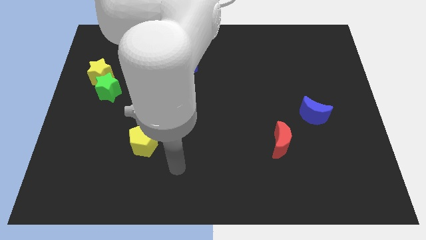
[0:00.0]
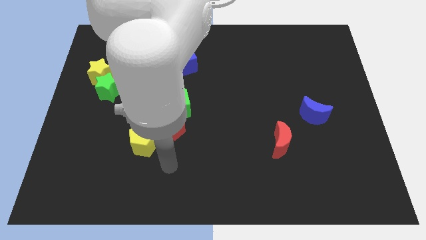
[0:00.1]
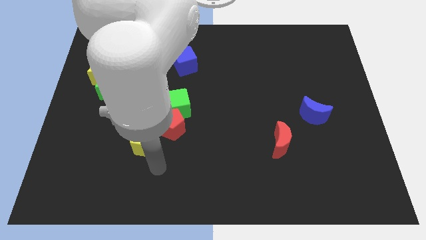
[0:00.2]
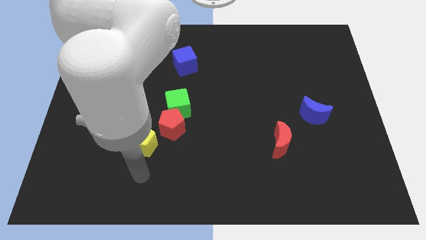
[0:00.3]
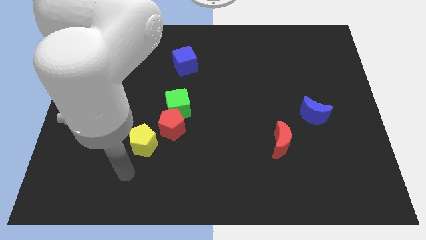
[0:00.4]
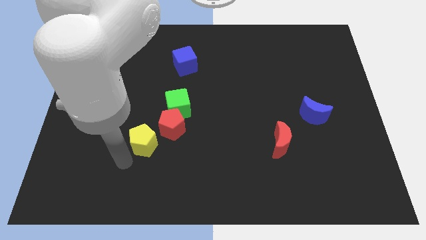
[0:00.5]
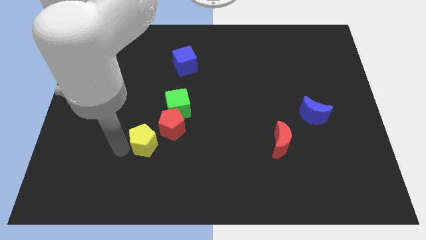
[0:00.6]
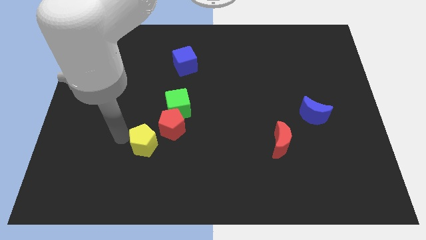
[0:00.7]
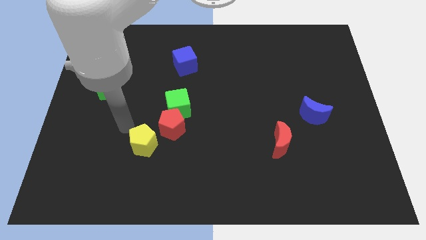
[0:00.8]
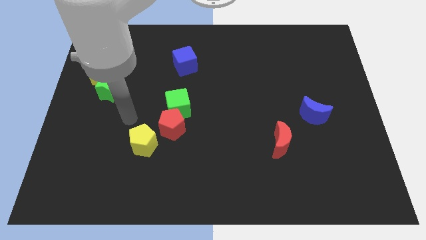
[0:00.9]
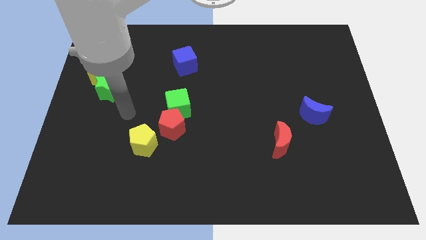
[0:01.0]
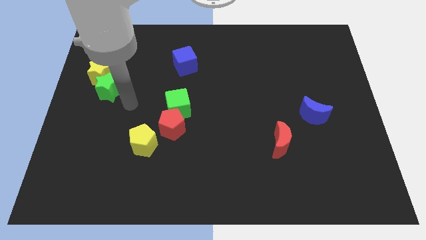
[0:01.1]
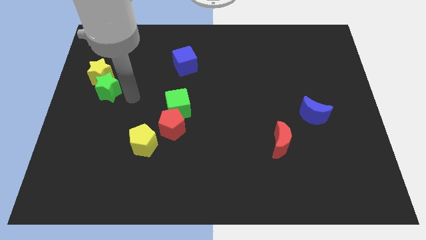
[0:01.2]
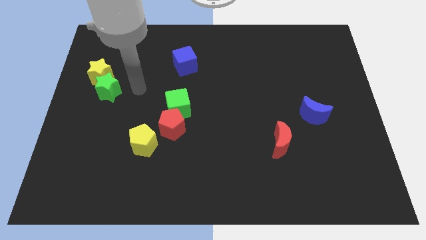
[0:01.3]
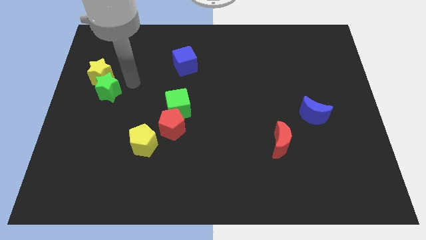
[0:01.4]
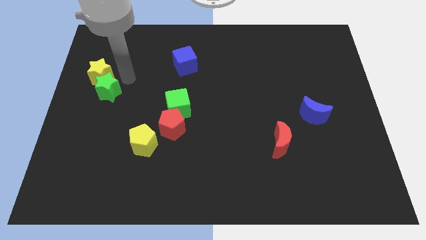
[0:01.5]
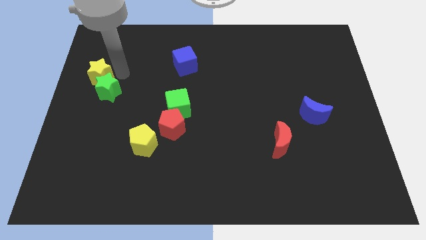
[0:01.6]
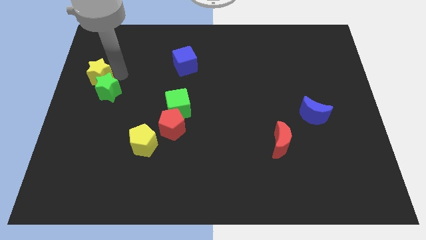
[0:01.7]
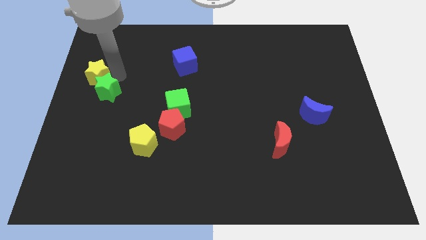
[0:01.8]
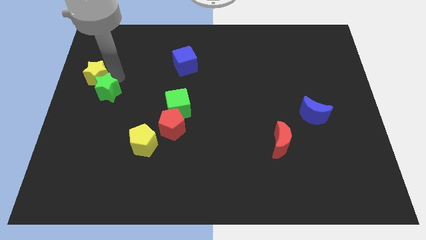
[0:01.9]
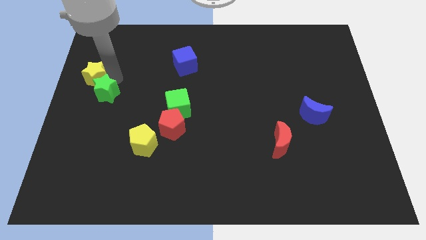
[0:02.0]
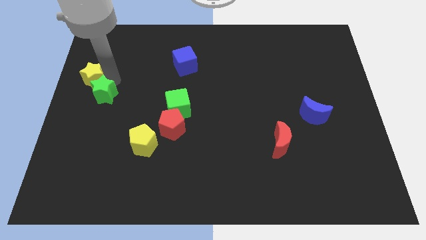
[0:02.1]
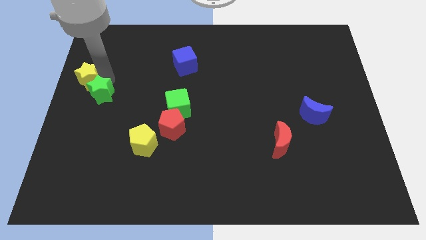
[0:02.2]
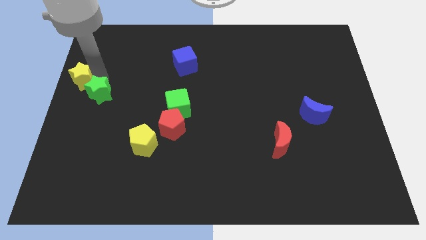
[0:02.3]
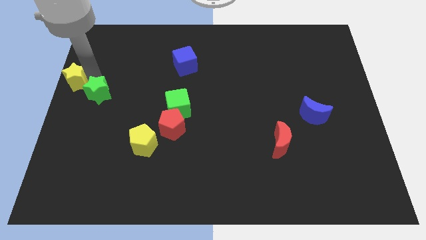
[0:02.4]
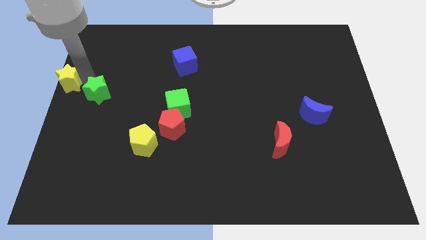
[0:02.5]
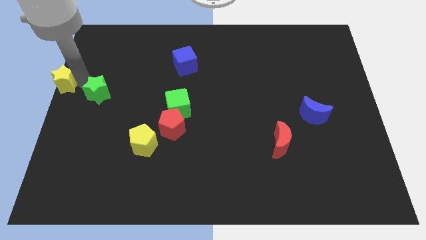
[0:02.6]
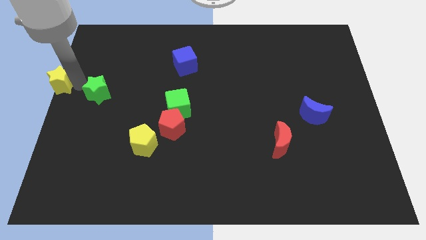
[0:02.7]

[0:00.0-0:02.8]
separate the green star from the yellow star

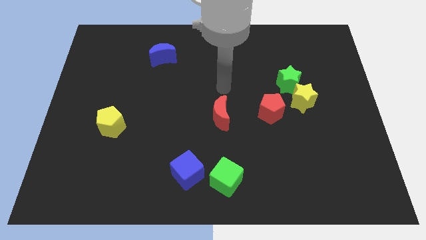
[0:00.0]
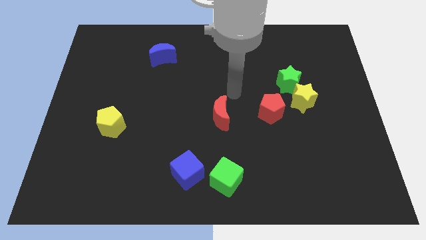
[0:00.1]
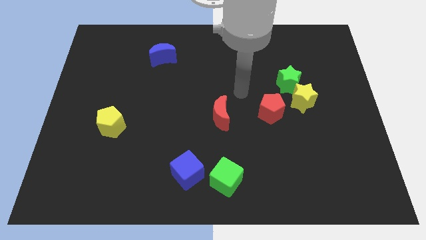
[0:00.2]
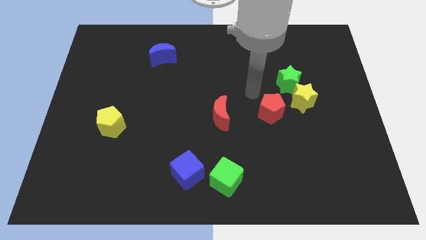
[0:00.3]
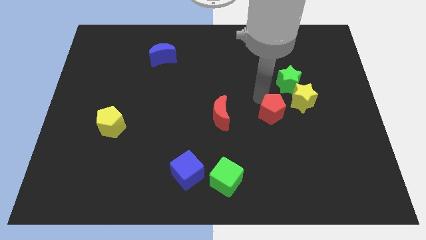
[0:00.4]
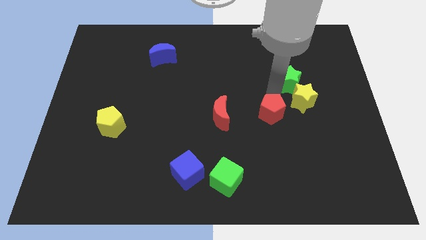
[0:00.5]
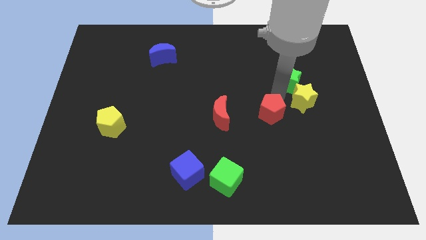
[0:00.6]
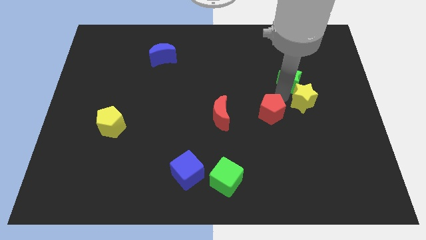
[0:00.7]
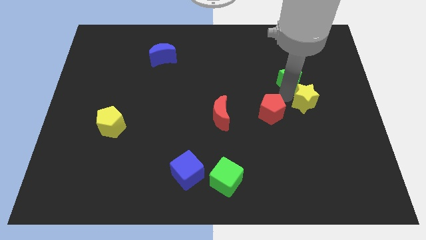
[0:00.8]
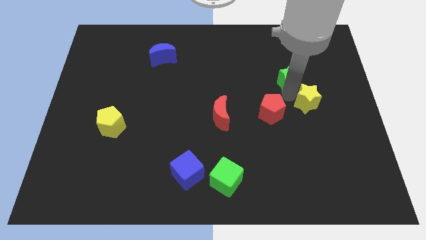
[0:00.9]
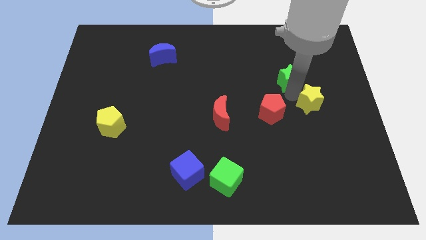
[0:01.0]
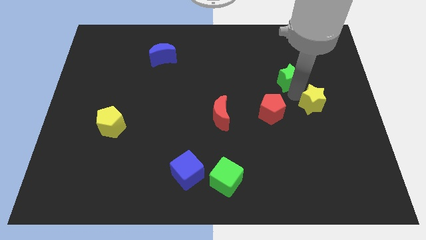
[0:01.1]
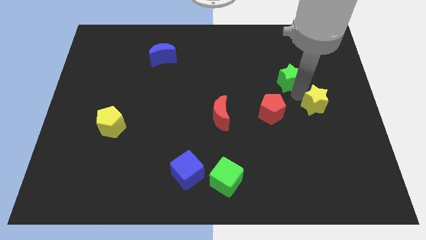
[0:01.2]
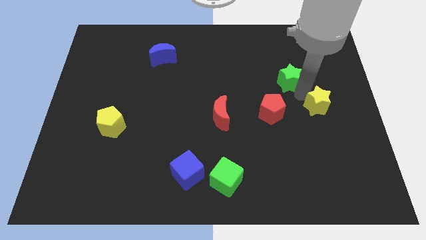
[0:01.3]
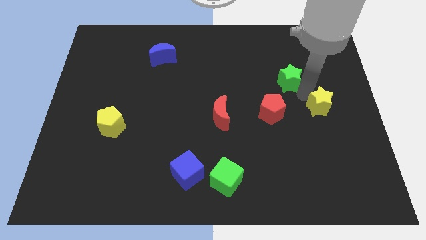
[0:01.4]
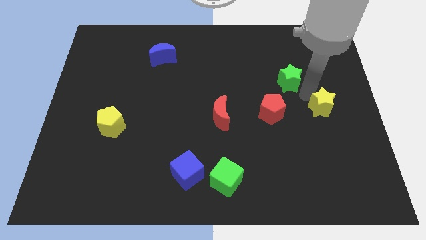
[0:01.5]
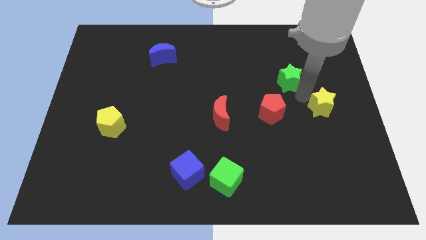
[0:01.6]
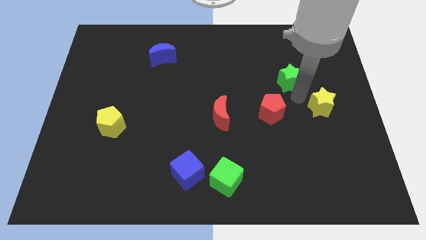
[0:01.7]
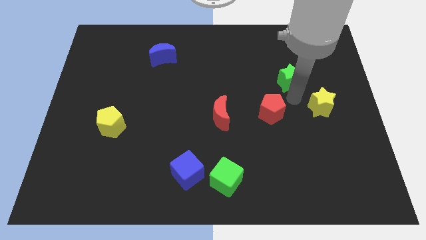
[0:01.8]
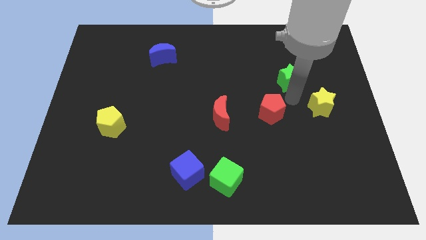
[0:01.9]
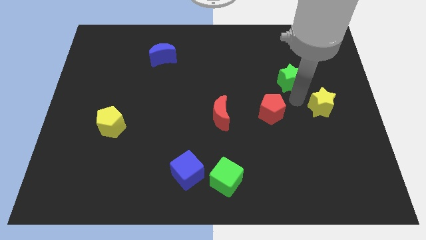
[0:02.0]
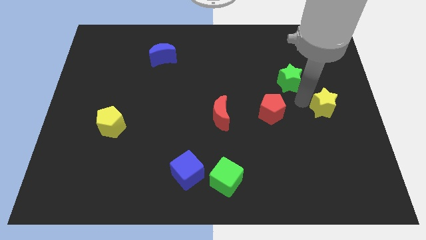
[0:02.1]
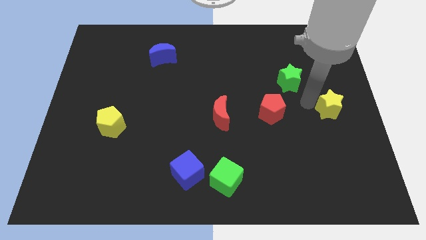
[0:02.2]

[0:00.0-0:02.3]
separate the yellow star from the green star and red pentagon

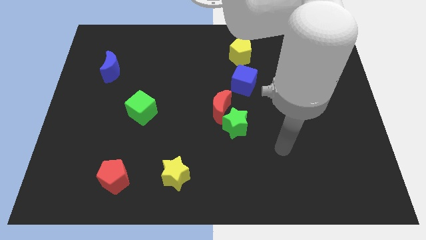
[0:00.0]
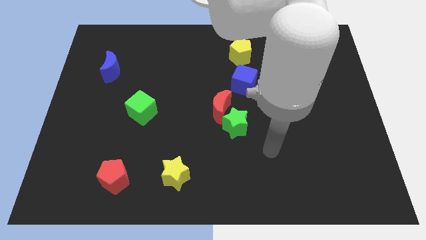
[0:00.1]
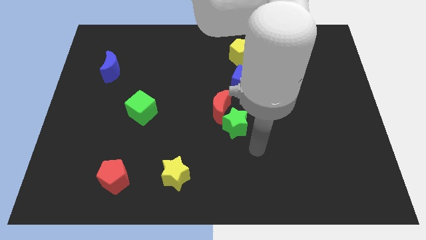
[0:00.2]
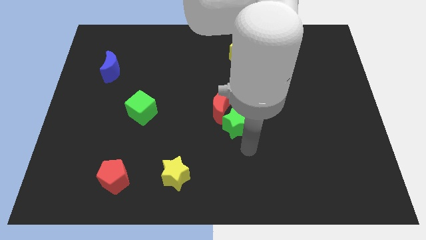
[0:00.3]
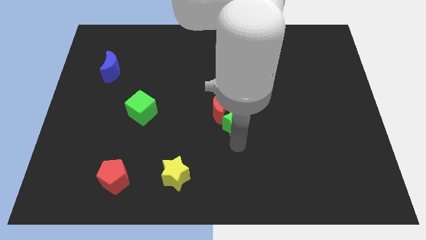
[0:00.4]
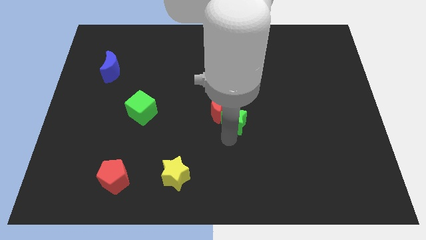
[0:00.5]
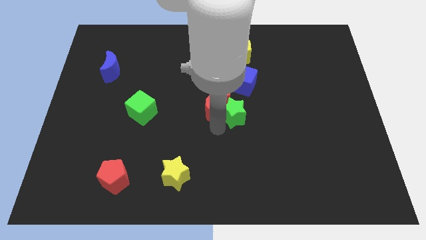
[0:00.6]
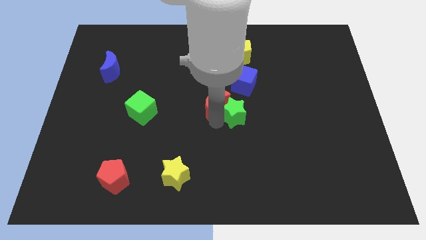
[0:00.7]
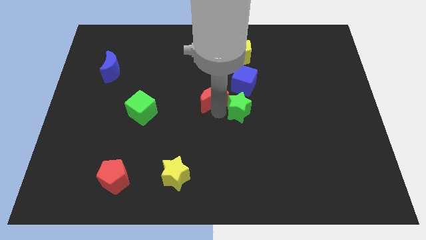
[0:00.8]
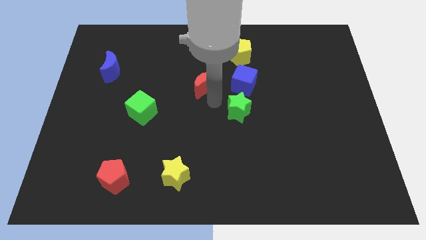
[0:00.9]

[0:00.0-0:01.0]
pull the green star apart from the red moon

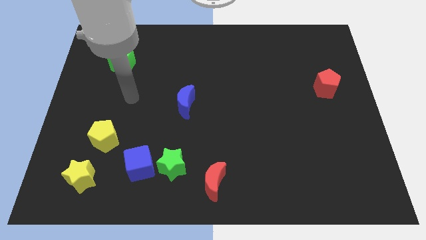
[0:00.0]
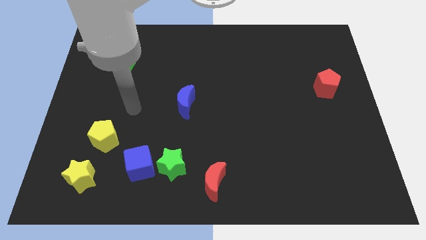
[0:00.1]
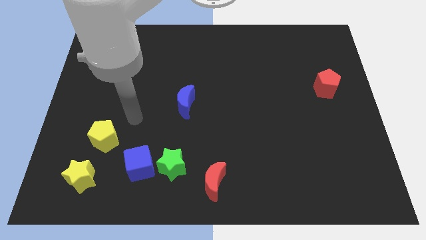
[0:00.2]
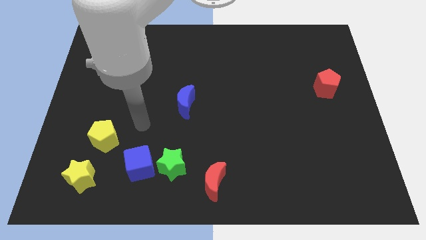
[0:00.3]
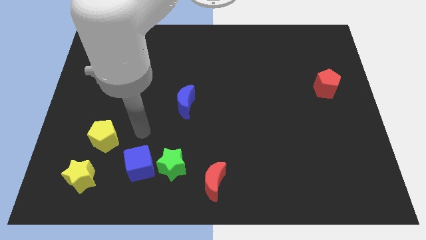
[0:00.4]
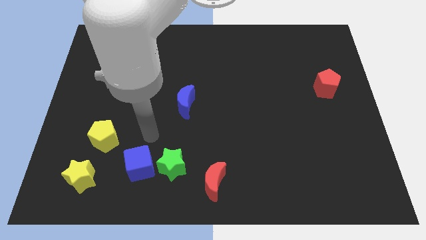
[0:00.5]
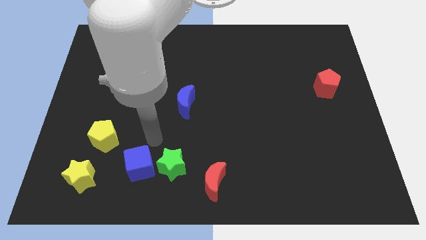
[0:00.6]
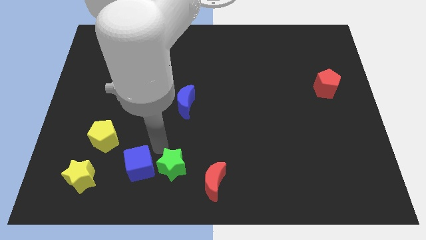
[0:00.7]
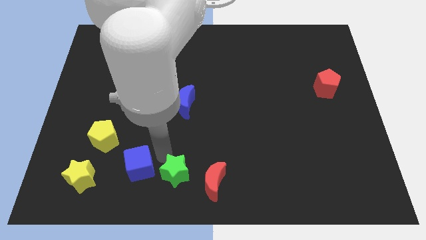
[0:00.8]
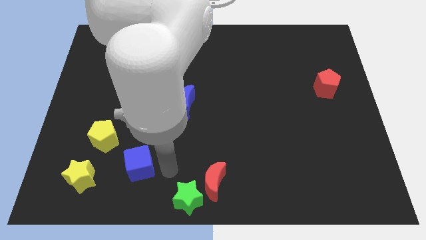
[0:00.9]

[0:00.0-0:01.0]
pull the blue cube apart from the green star

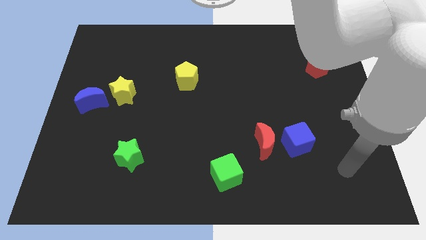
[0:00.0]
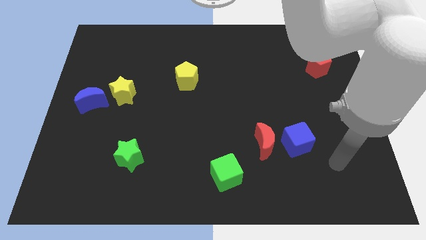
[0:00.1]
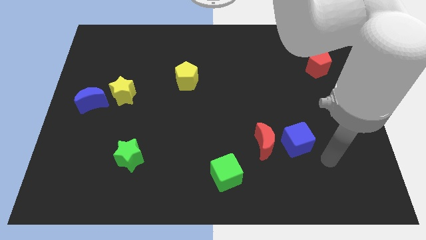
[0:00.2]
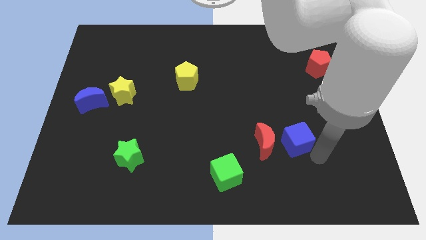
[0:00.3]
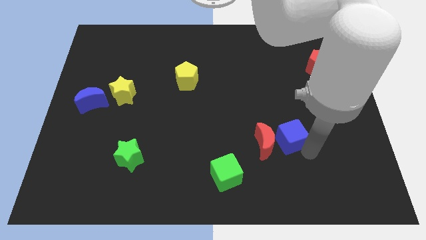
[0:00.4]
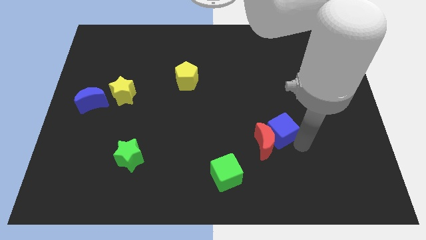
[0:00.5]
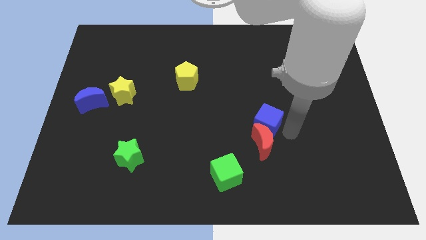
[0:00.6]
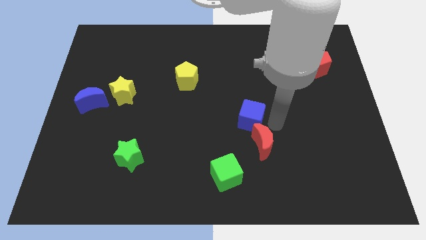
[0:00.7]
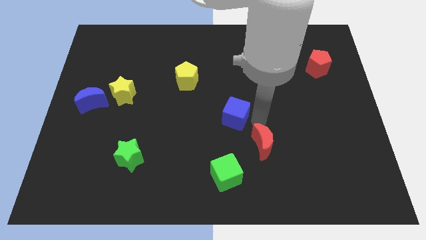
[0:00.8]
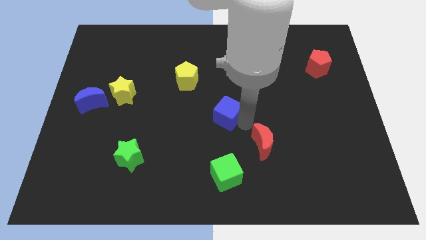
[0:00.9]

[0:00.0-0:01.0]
move the red moon away from the blue cube

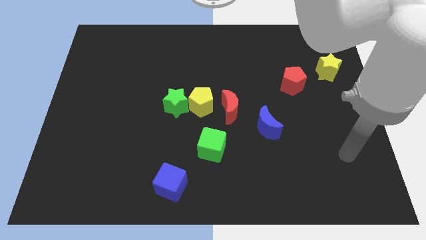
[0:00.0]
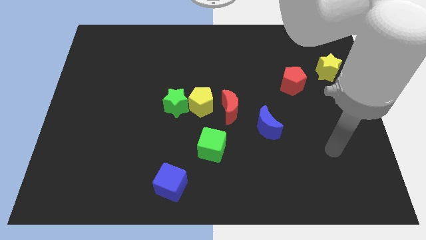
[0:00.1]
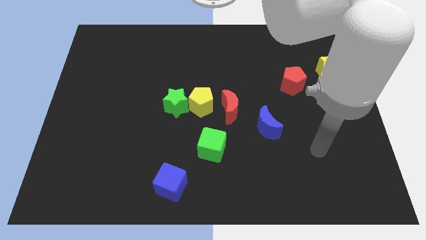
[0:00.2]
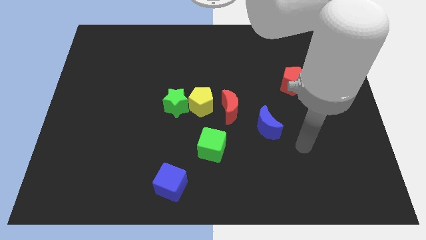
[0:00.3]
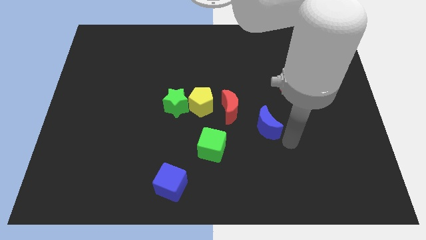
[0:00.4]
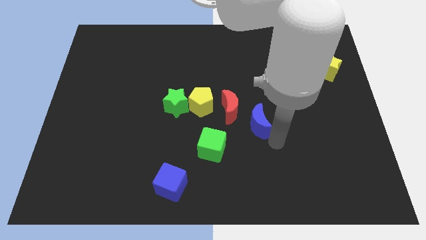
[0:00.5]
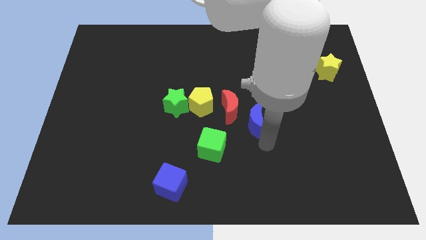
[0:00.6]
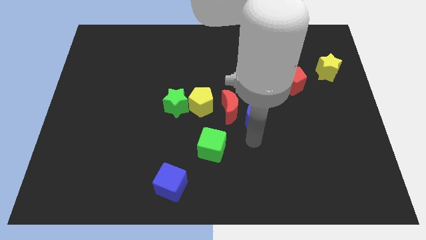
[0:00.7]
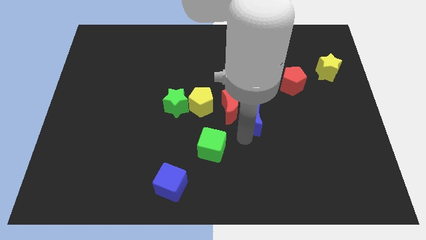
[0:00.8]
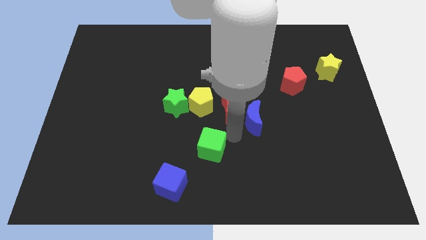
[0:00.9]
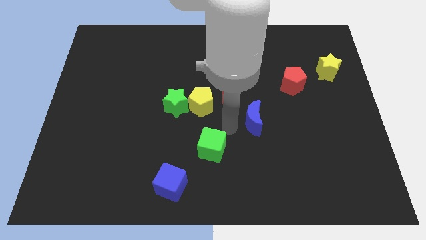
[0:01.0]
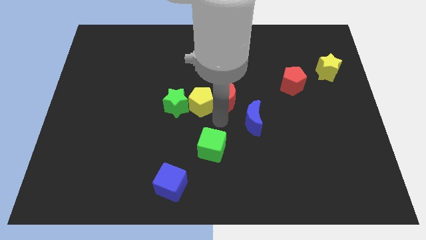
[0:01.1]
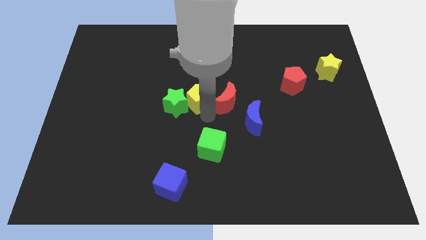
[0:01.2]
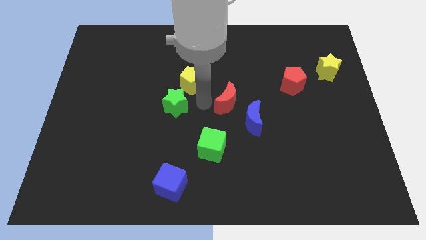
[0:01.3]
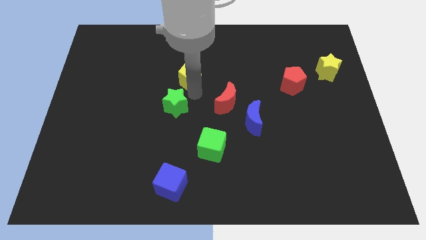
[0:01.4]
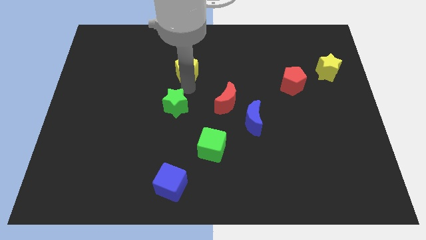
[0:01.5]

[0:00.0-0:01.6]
pull the green star apart from the yellow pentagon
